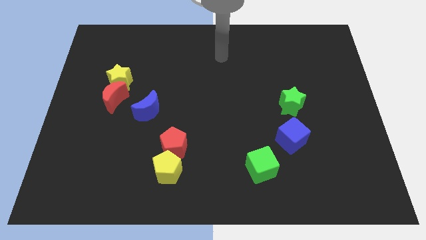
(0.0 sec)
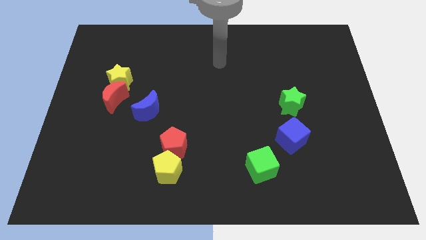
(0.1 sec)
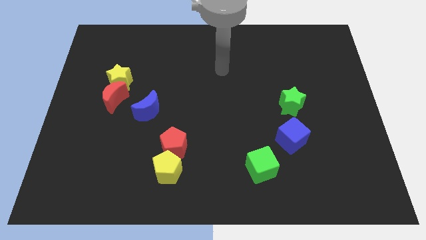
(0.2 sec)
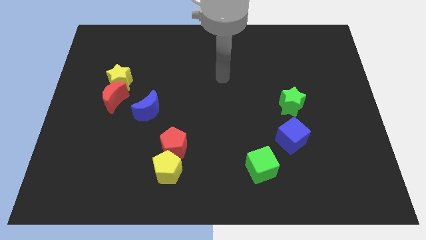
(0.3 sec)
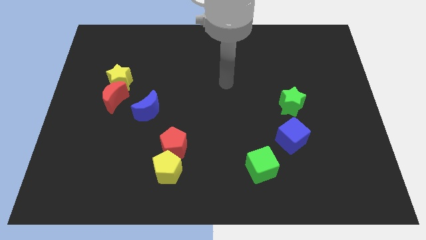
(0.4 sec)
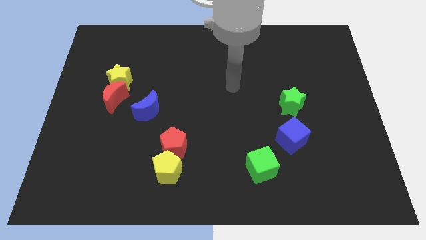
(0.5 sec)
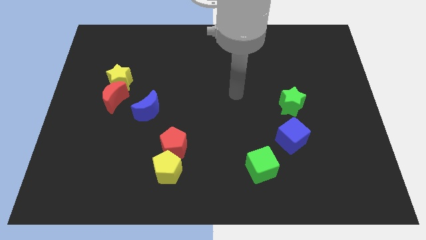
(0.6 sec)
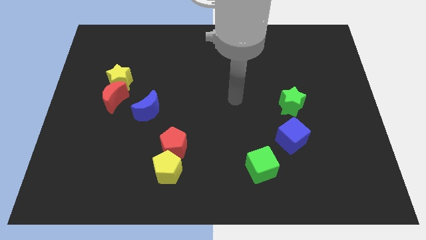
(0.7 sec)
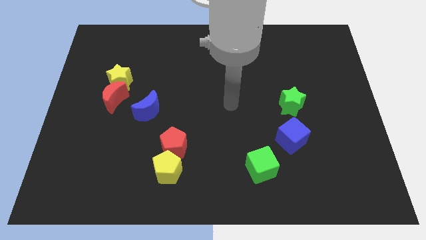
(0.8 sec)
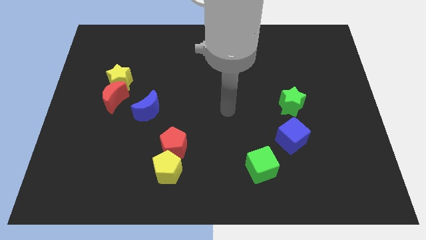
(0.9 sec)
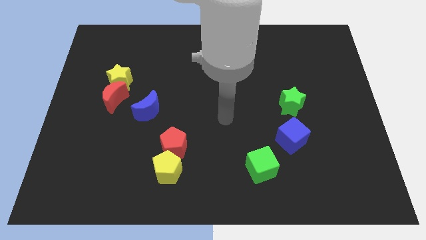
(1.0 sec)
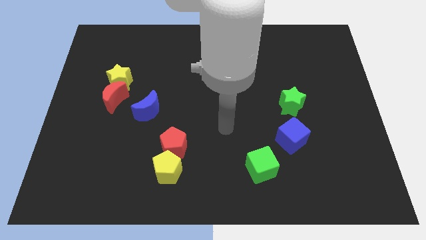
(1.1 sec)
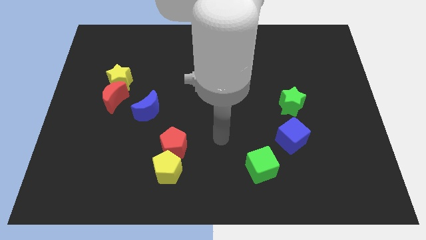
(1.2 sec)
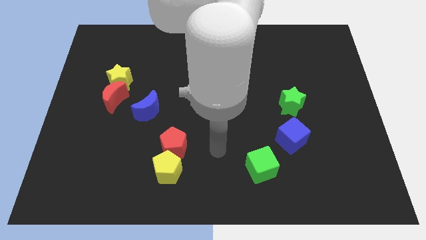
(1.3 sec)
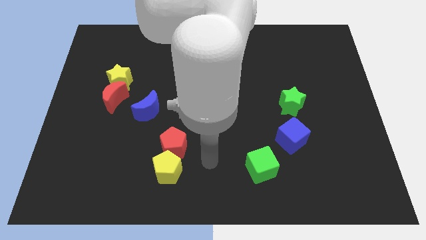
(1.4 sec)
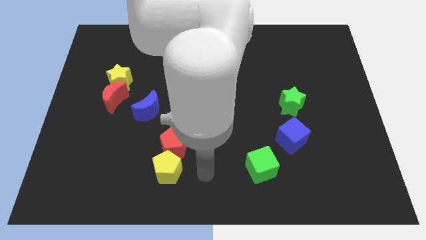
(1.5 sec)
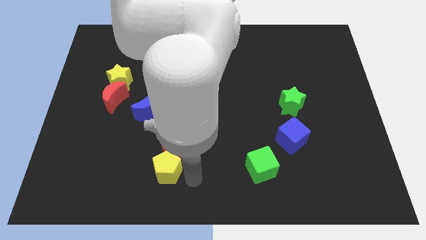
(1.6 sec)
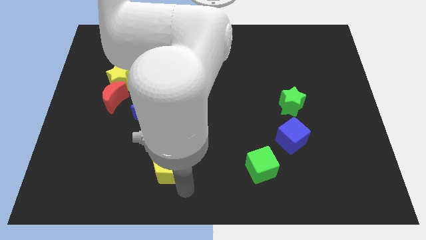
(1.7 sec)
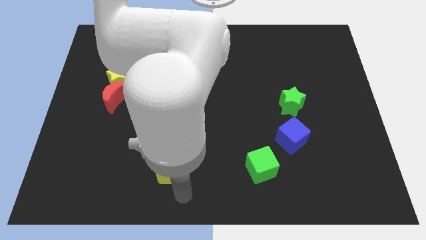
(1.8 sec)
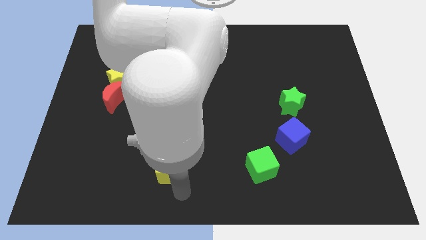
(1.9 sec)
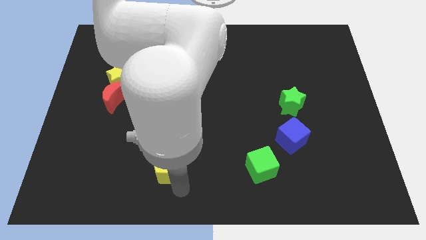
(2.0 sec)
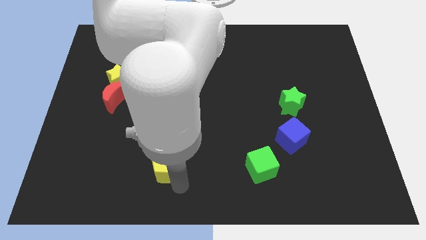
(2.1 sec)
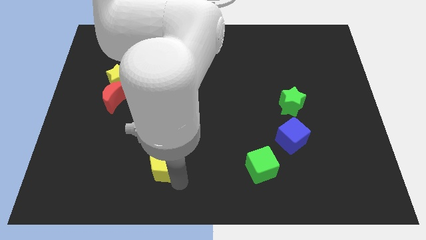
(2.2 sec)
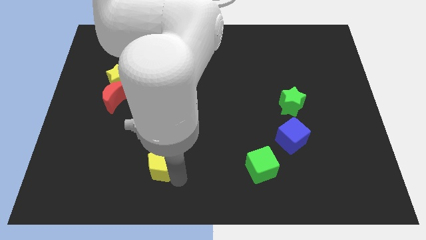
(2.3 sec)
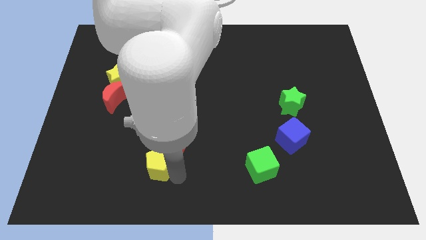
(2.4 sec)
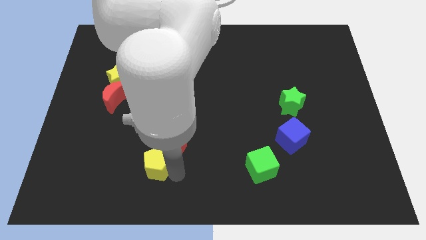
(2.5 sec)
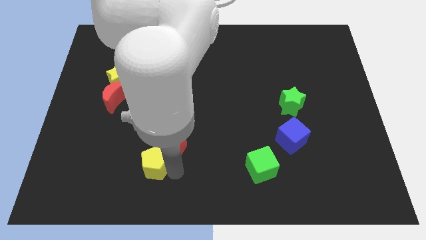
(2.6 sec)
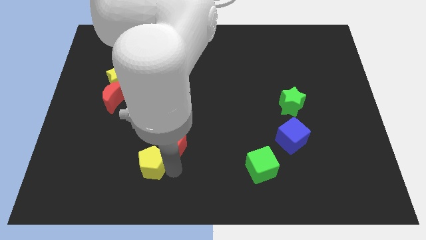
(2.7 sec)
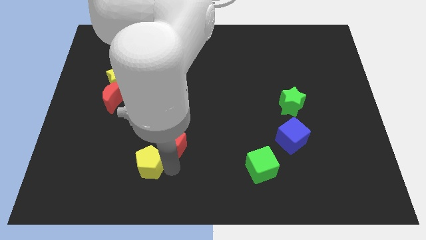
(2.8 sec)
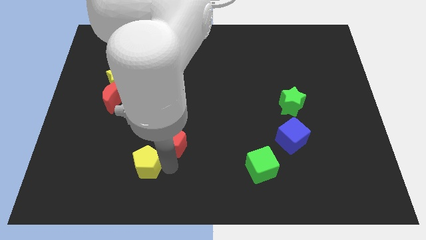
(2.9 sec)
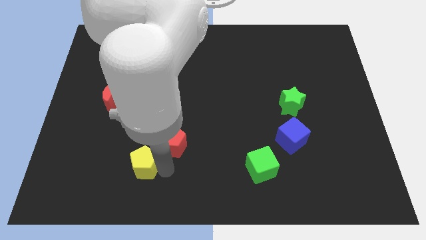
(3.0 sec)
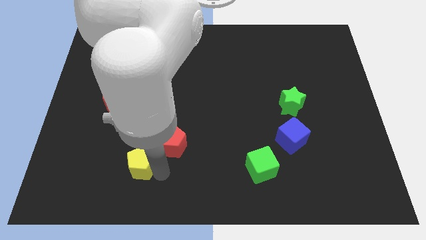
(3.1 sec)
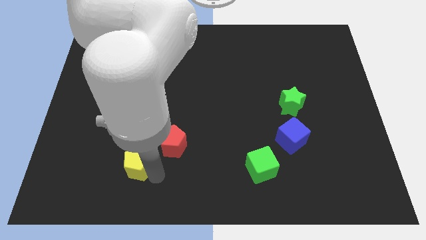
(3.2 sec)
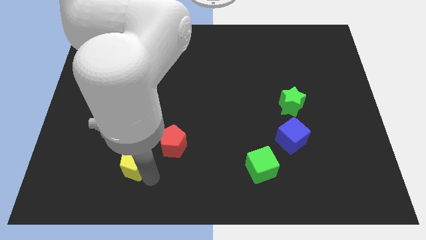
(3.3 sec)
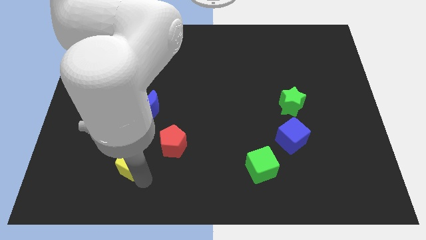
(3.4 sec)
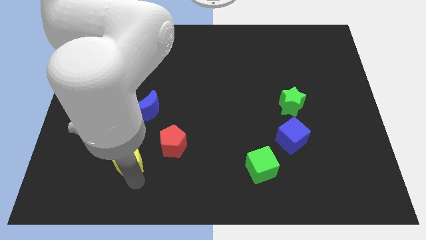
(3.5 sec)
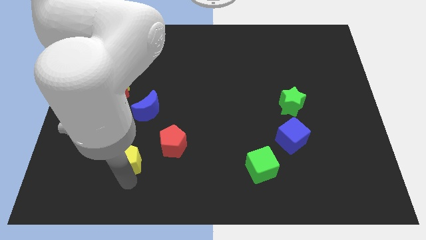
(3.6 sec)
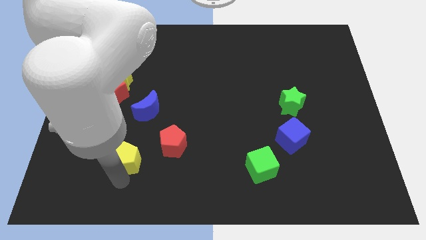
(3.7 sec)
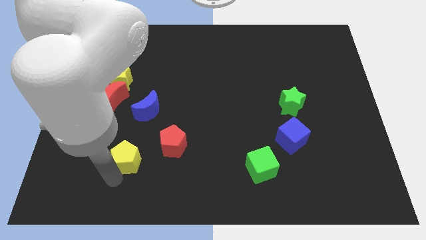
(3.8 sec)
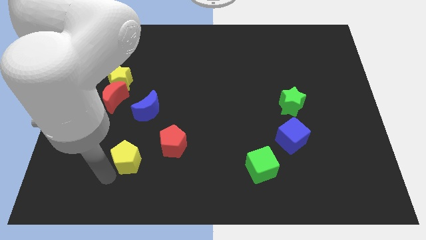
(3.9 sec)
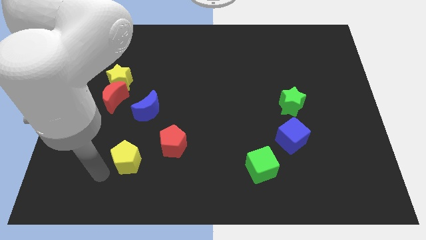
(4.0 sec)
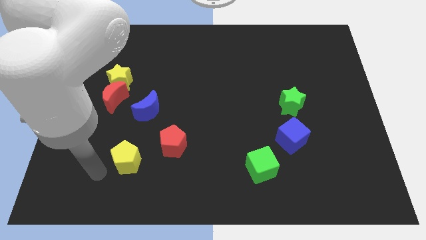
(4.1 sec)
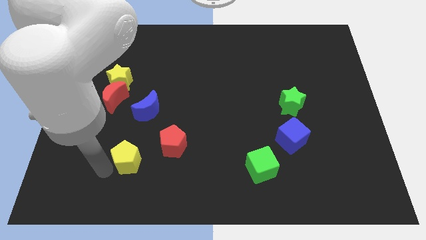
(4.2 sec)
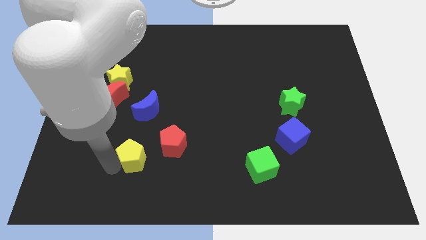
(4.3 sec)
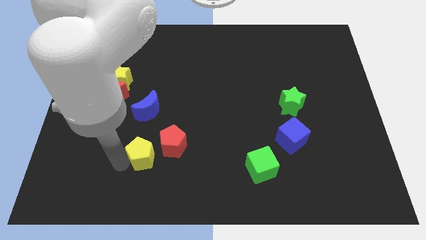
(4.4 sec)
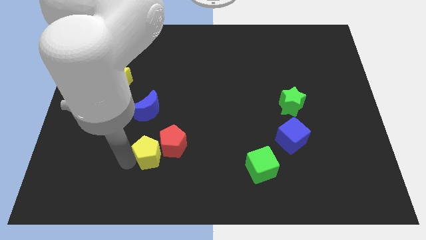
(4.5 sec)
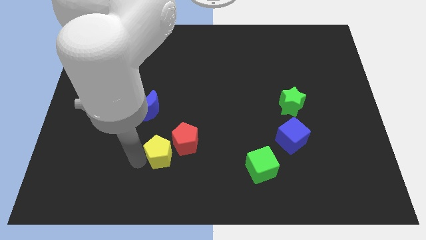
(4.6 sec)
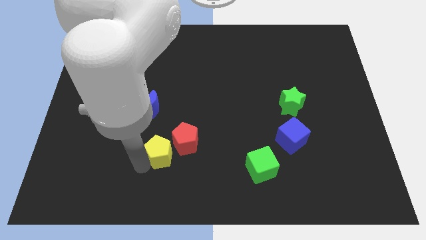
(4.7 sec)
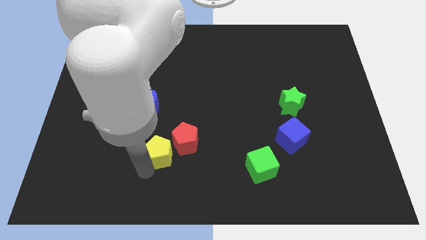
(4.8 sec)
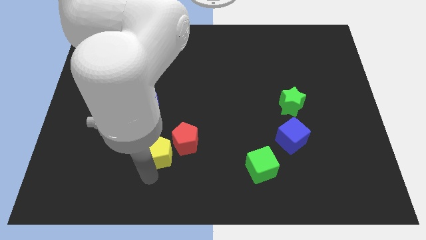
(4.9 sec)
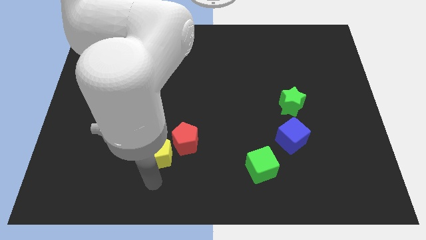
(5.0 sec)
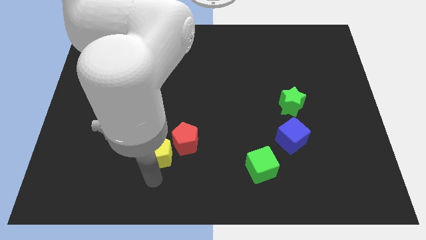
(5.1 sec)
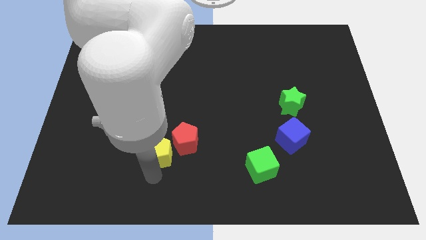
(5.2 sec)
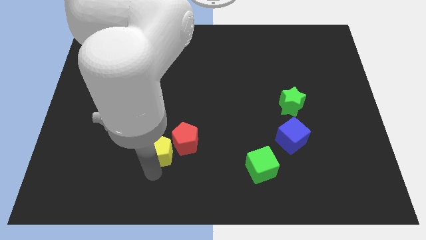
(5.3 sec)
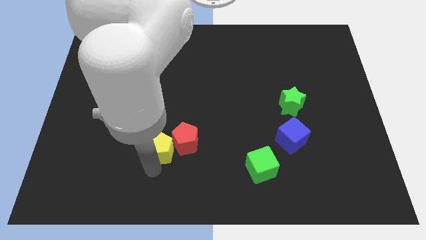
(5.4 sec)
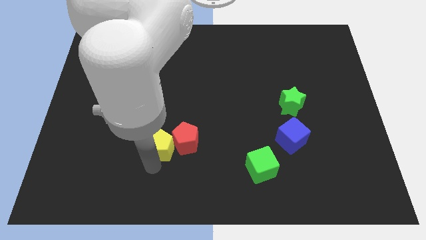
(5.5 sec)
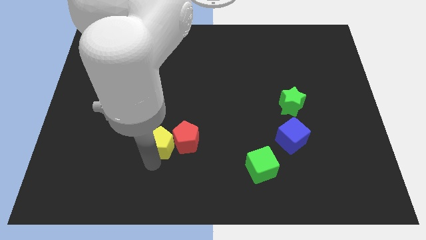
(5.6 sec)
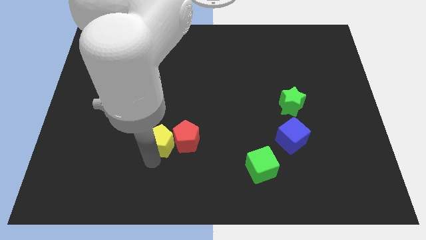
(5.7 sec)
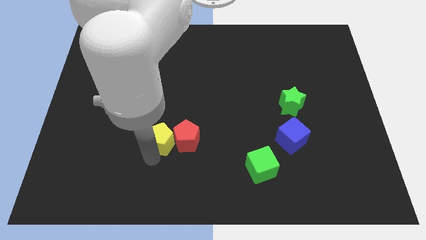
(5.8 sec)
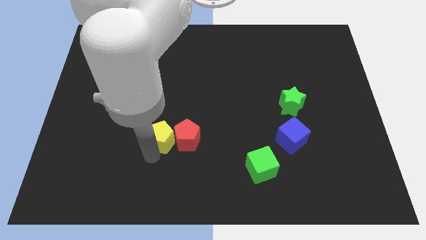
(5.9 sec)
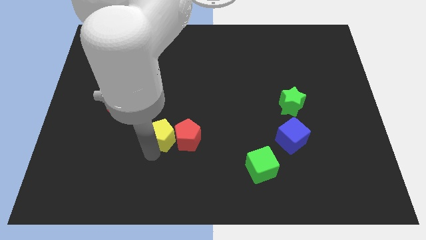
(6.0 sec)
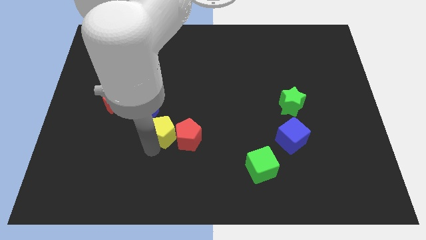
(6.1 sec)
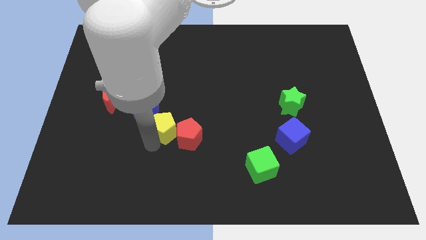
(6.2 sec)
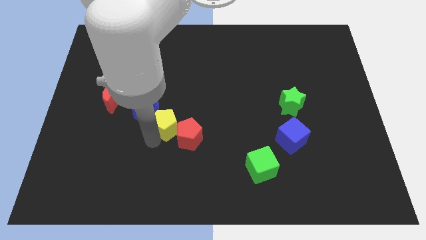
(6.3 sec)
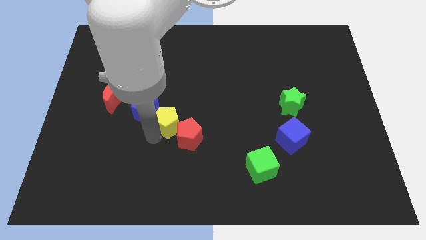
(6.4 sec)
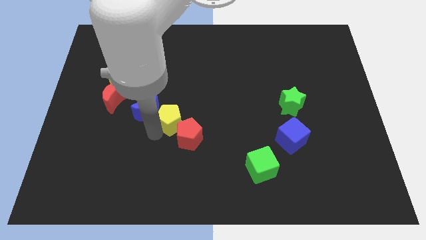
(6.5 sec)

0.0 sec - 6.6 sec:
put the yellow pentagon to the top side of the red pentagon
